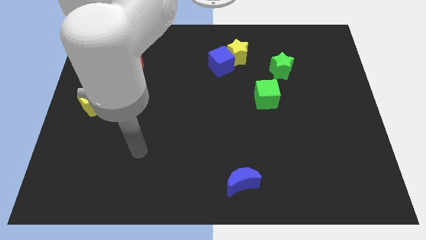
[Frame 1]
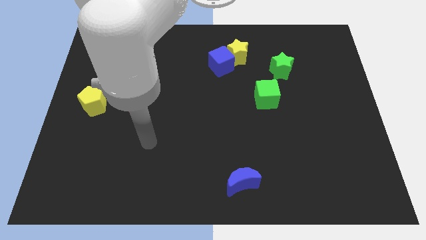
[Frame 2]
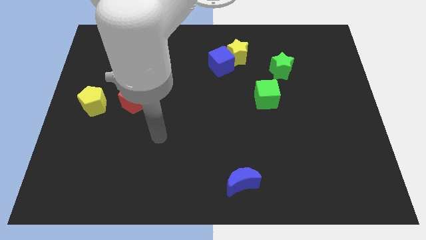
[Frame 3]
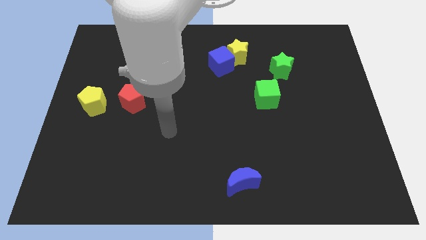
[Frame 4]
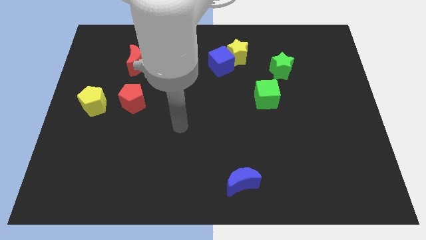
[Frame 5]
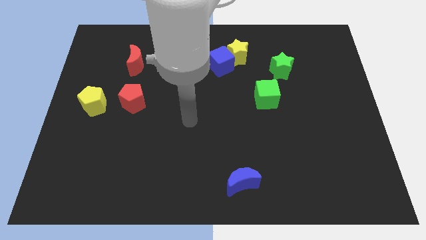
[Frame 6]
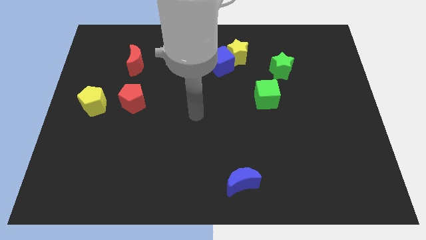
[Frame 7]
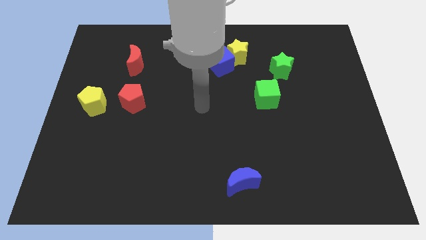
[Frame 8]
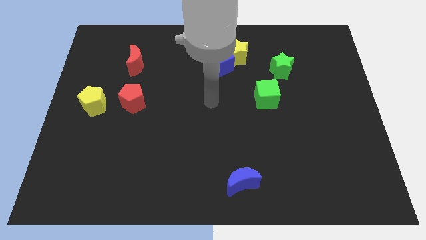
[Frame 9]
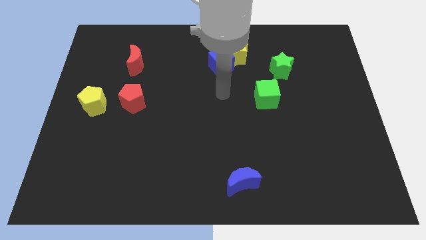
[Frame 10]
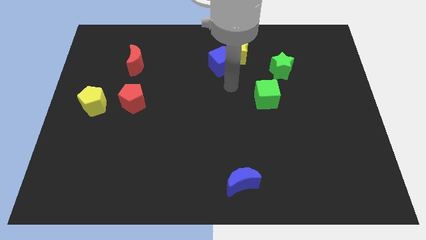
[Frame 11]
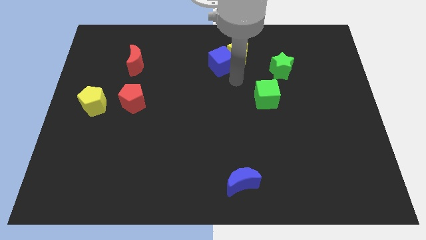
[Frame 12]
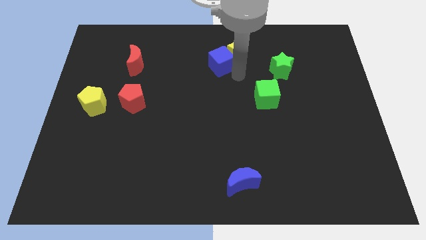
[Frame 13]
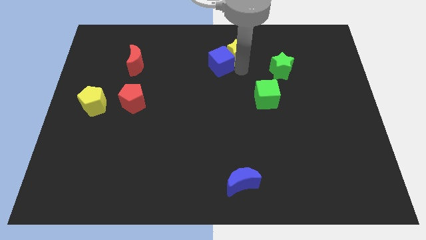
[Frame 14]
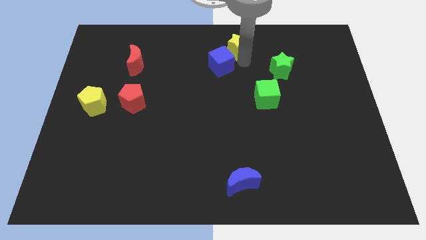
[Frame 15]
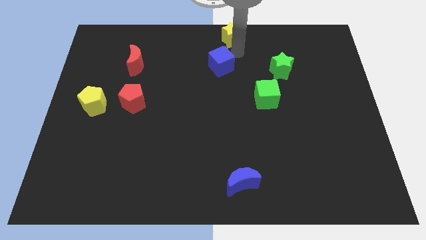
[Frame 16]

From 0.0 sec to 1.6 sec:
move the blue cube away from the yellow star

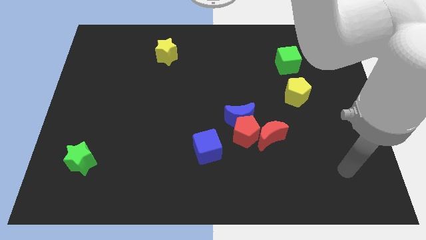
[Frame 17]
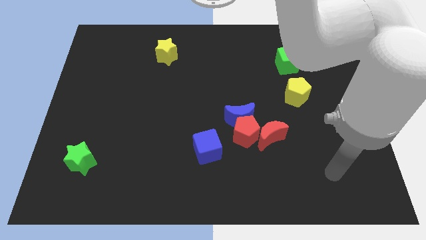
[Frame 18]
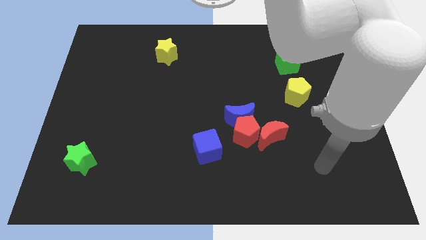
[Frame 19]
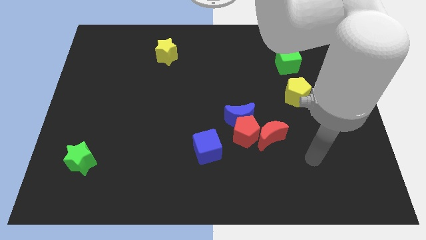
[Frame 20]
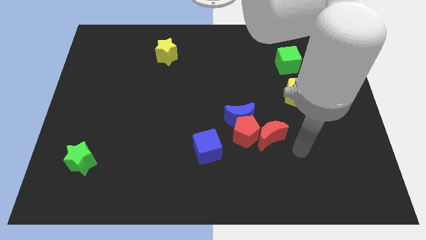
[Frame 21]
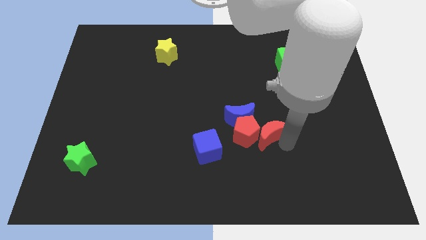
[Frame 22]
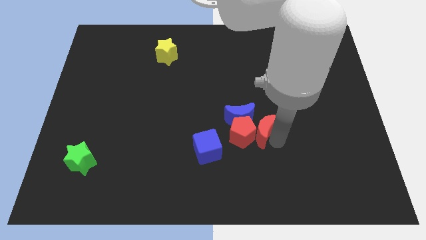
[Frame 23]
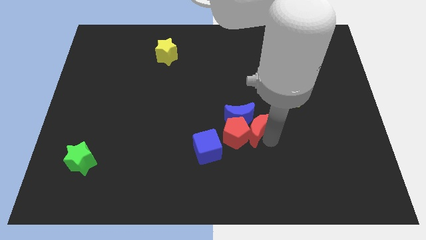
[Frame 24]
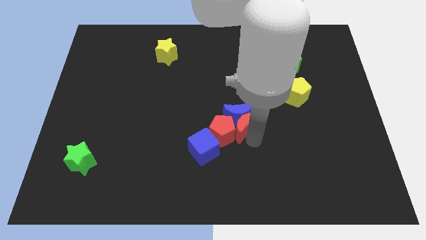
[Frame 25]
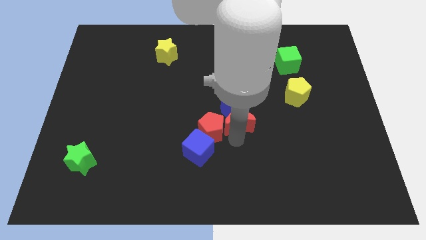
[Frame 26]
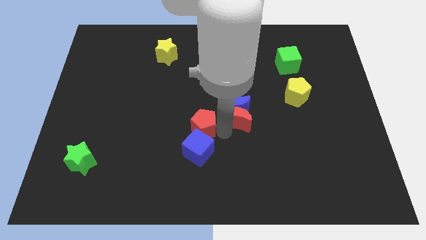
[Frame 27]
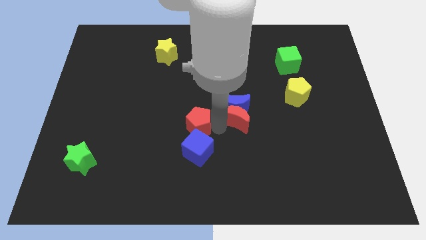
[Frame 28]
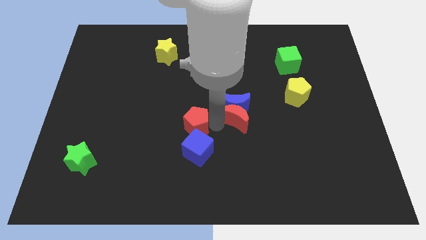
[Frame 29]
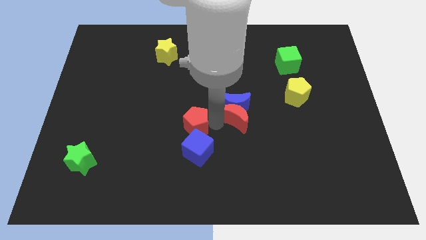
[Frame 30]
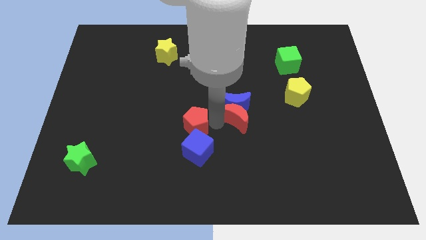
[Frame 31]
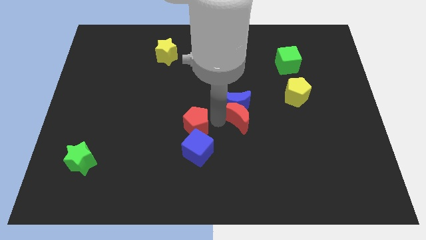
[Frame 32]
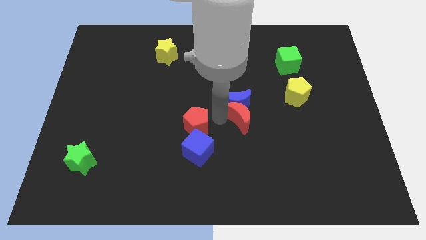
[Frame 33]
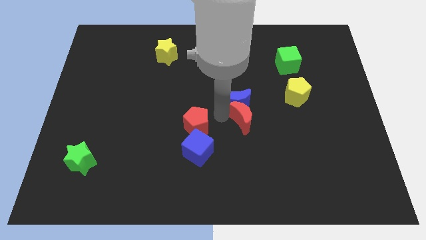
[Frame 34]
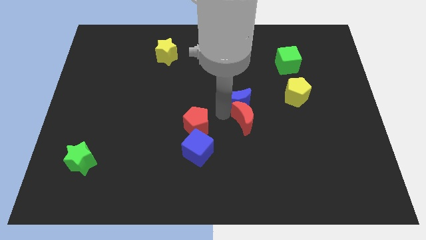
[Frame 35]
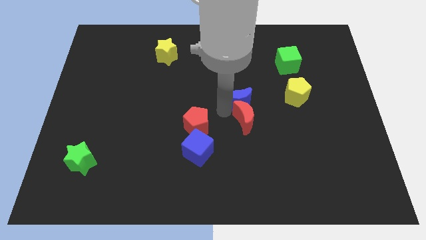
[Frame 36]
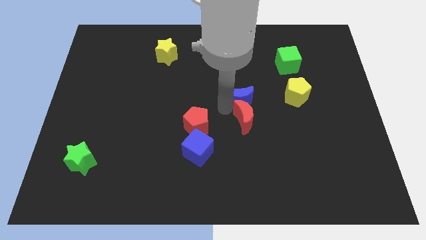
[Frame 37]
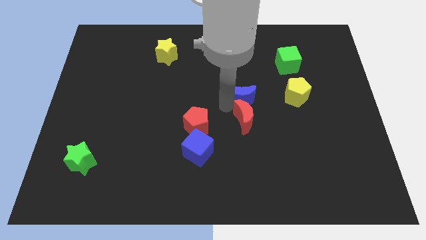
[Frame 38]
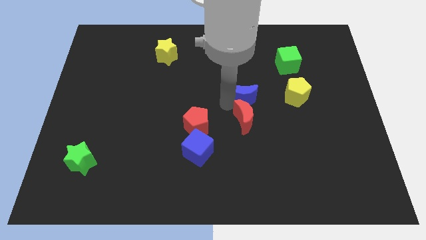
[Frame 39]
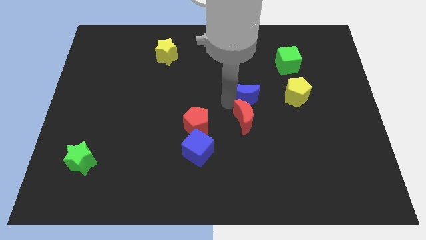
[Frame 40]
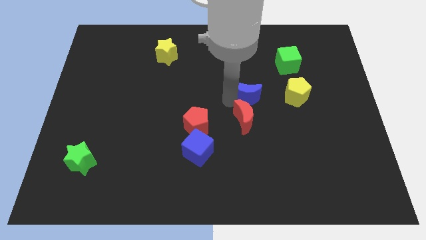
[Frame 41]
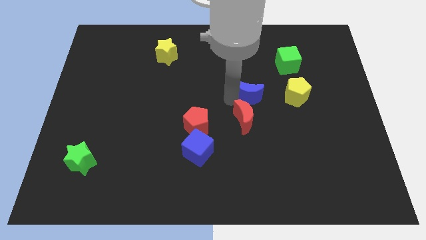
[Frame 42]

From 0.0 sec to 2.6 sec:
move the blue moon away from the red pentagon and red moon

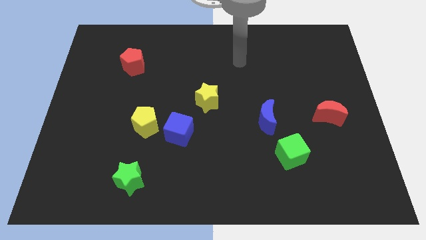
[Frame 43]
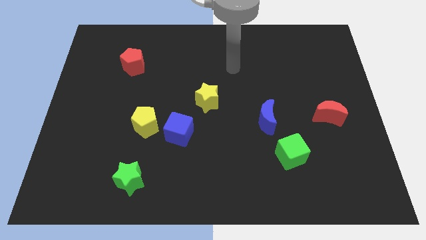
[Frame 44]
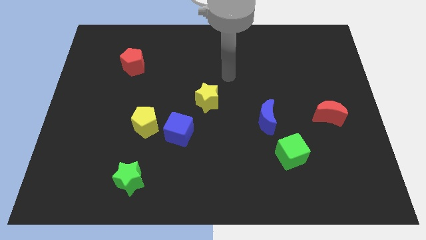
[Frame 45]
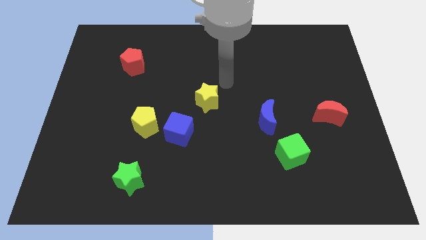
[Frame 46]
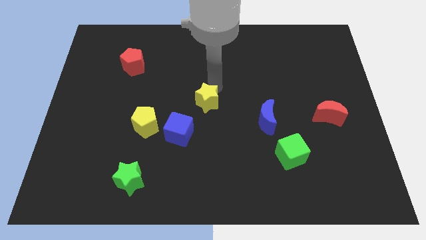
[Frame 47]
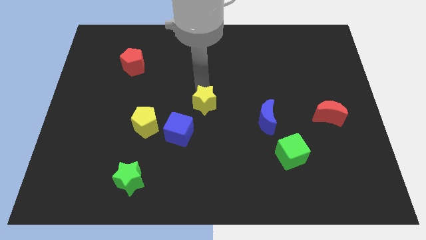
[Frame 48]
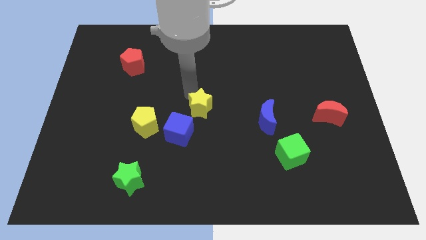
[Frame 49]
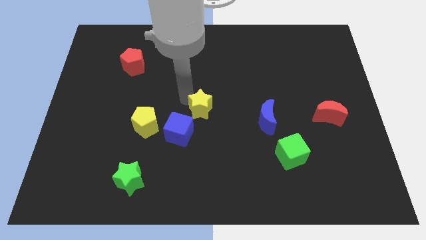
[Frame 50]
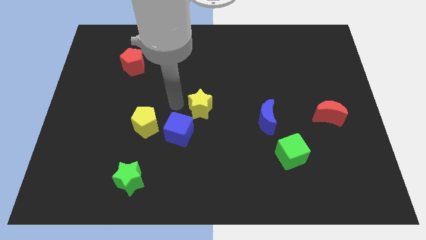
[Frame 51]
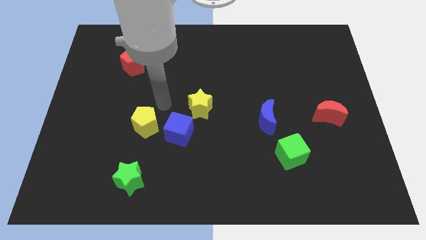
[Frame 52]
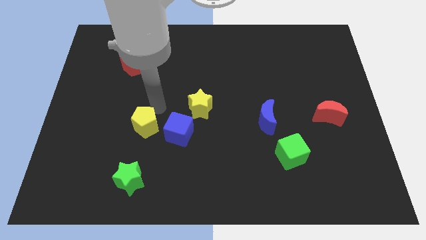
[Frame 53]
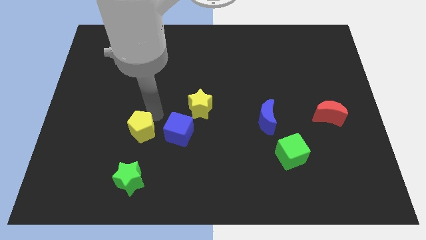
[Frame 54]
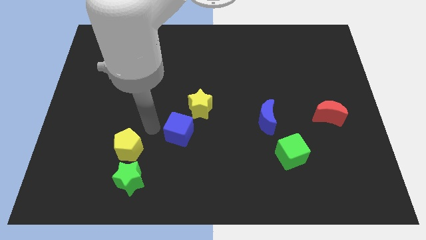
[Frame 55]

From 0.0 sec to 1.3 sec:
separate the blue cube from the yellow pentagon

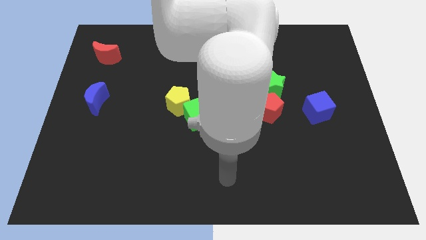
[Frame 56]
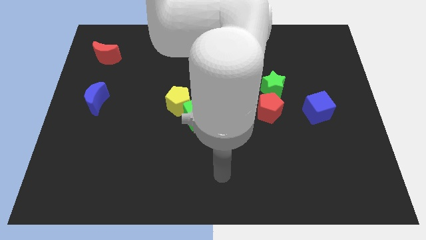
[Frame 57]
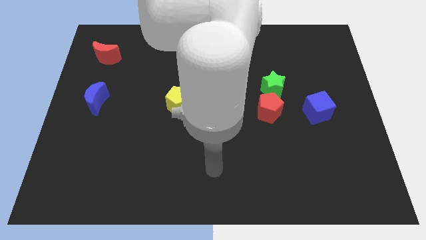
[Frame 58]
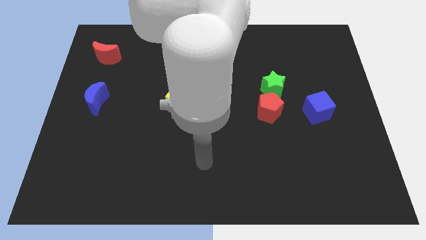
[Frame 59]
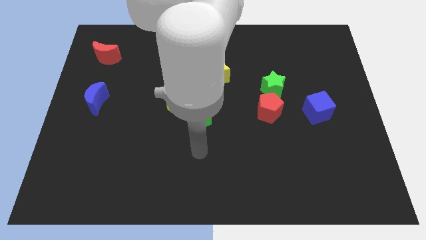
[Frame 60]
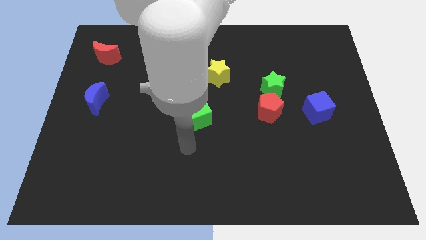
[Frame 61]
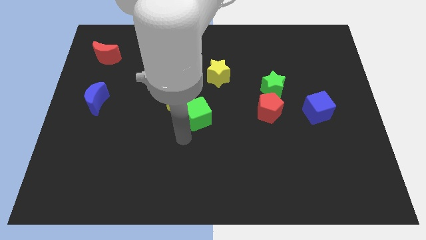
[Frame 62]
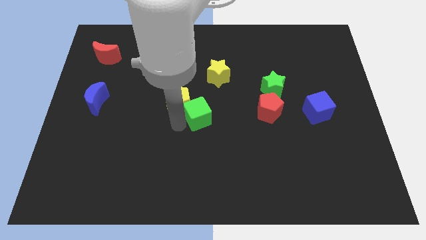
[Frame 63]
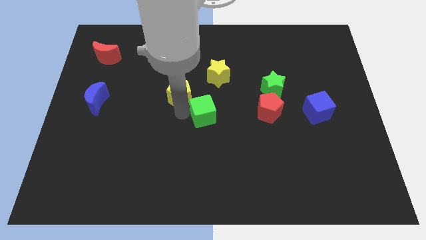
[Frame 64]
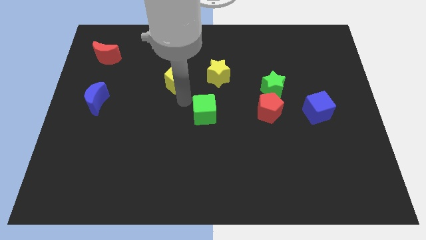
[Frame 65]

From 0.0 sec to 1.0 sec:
separate the green cube from the yellow pentagon

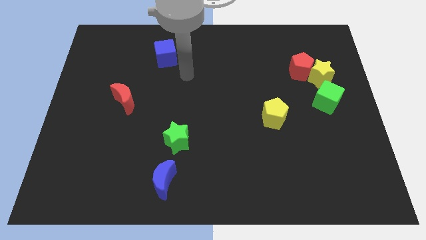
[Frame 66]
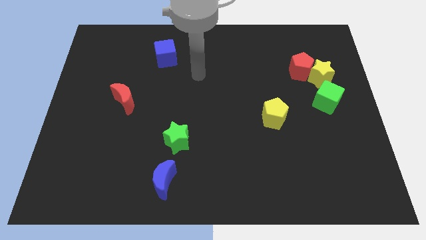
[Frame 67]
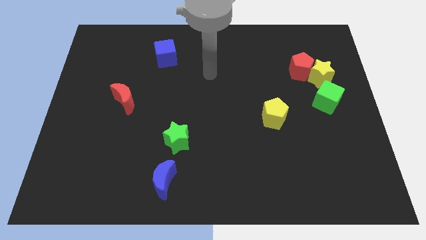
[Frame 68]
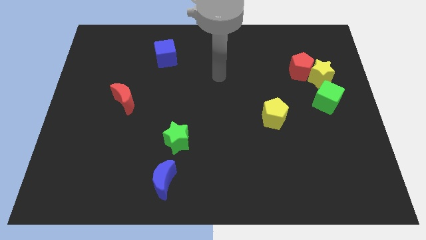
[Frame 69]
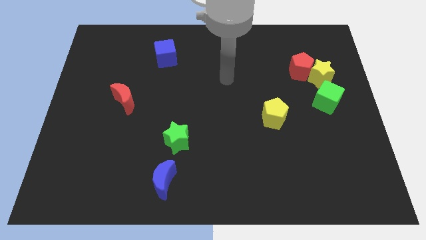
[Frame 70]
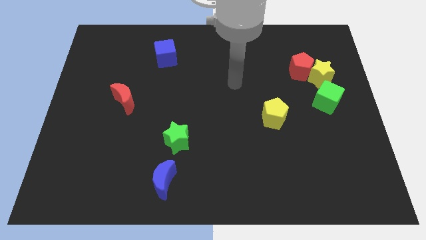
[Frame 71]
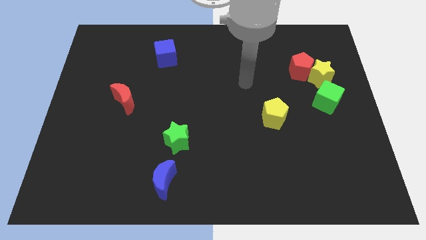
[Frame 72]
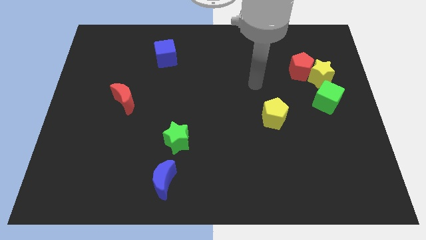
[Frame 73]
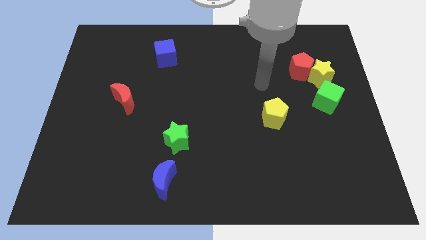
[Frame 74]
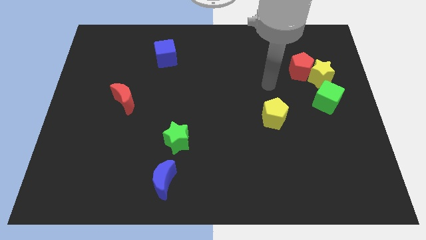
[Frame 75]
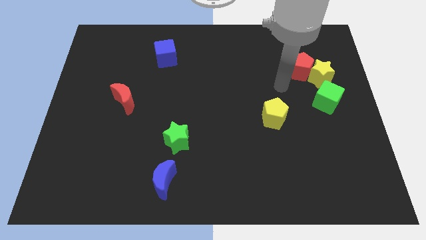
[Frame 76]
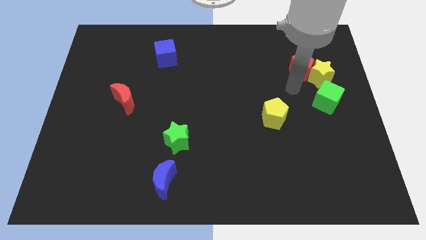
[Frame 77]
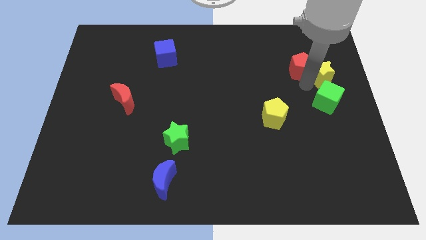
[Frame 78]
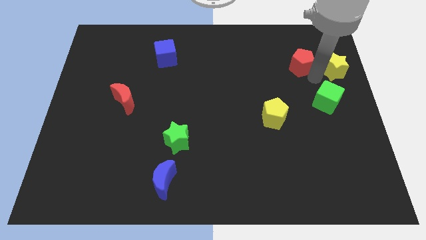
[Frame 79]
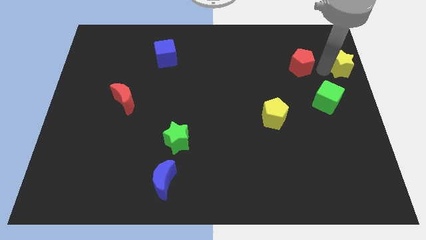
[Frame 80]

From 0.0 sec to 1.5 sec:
pull the red pentagon apart from the yellow star

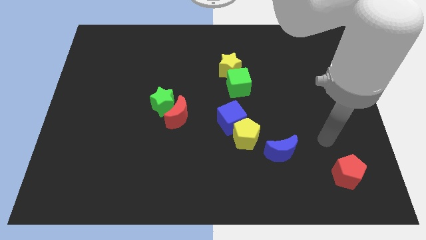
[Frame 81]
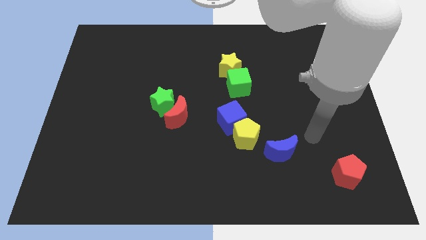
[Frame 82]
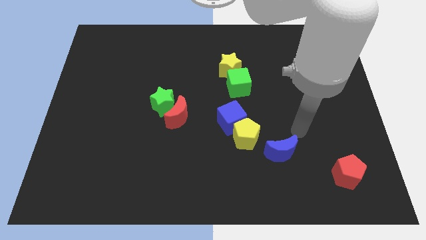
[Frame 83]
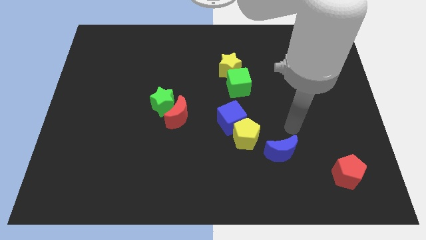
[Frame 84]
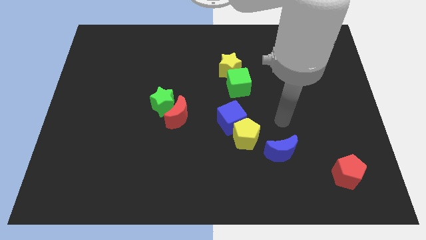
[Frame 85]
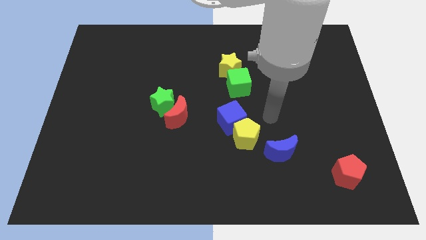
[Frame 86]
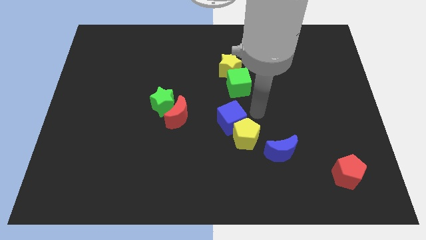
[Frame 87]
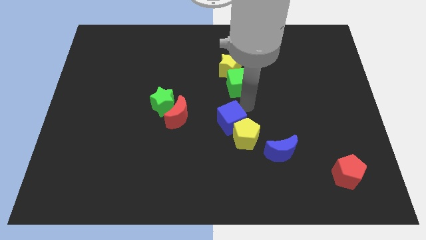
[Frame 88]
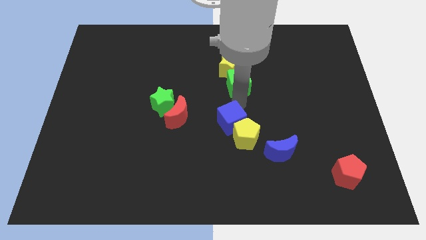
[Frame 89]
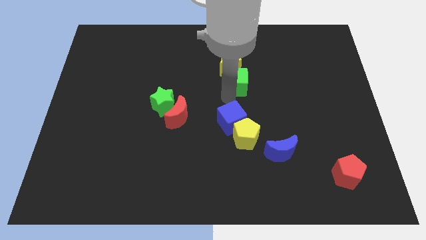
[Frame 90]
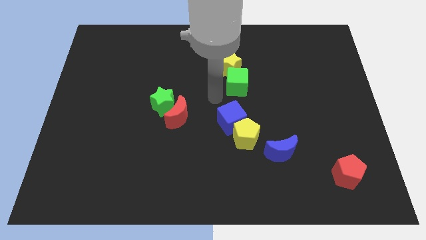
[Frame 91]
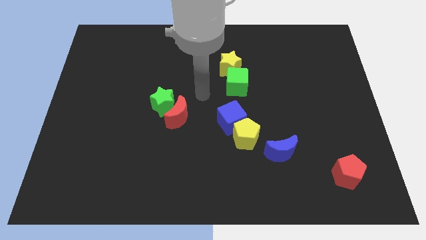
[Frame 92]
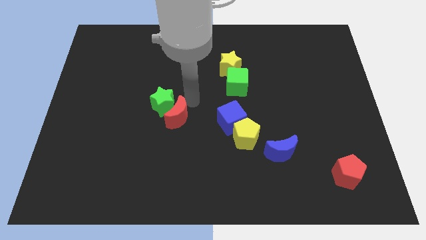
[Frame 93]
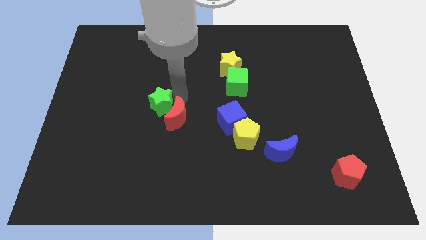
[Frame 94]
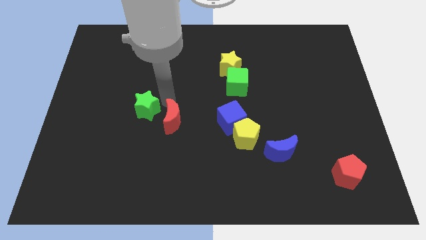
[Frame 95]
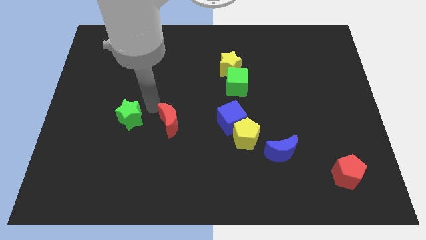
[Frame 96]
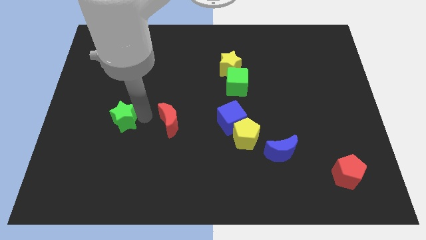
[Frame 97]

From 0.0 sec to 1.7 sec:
separate the red moon from the green star
